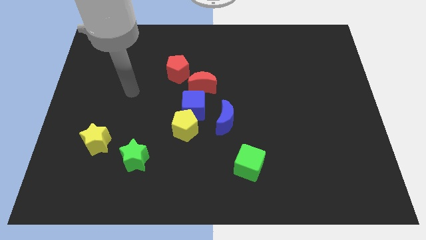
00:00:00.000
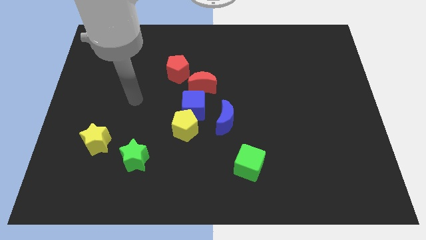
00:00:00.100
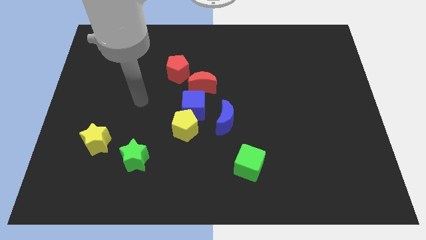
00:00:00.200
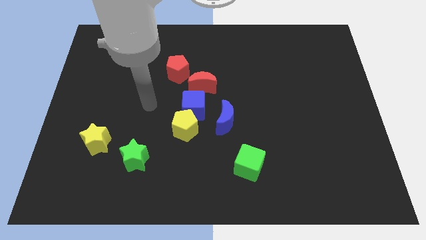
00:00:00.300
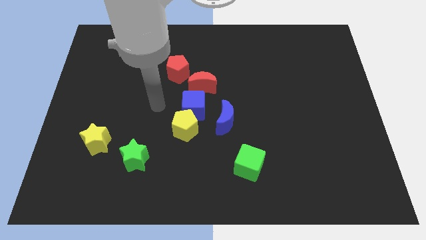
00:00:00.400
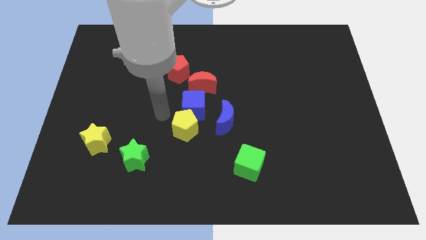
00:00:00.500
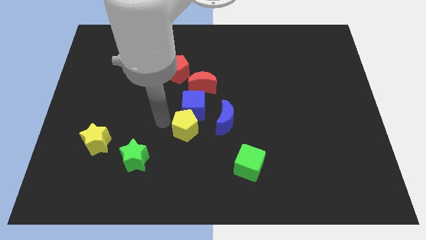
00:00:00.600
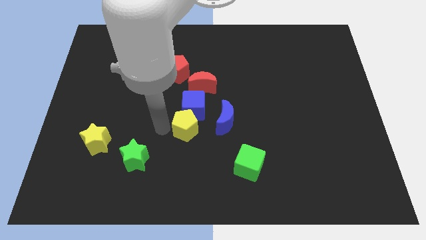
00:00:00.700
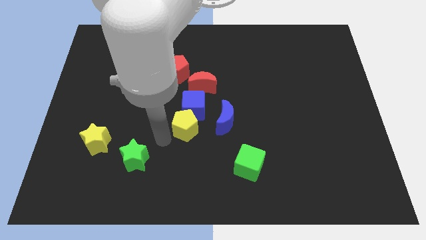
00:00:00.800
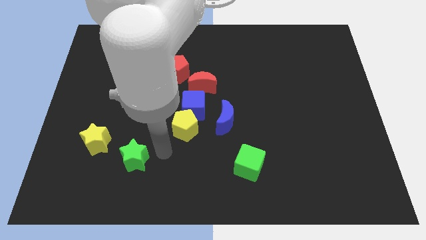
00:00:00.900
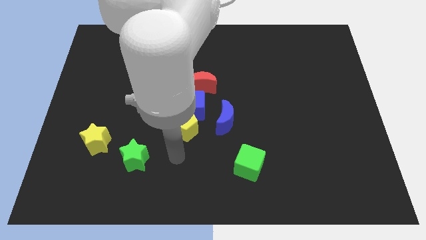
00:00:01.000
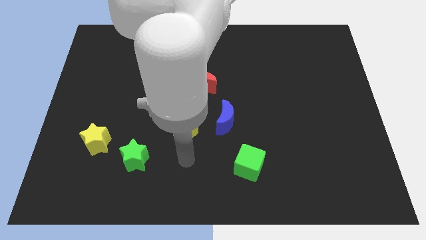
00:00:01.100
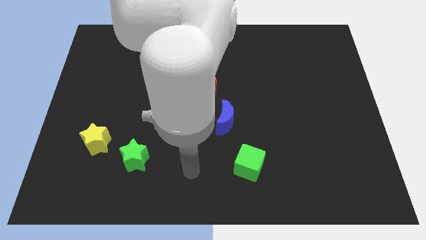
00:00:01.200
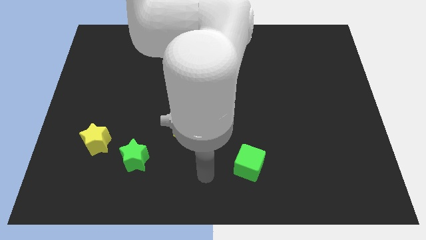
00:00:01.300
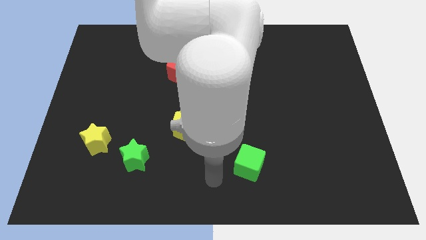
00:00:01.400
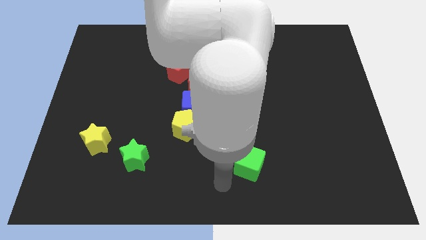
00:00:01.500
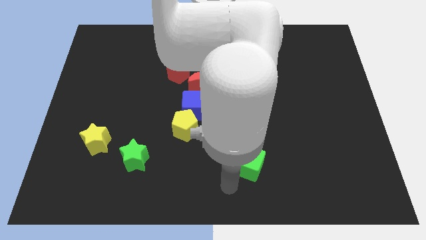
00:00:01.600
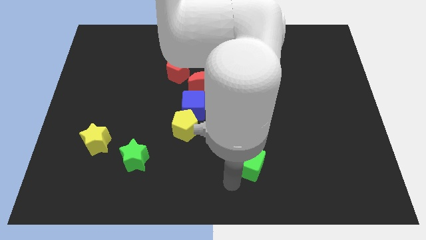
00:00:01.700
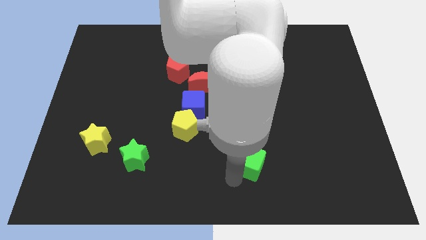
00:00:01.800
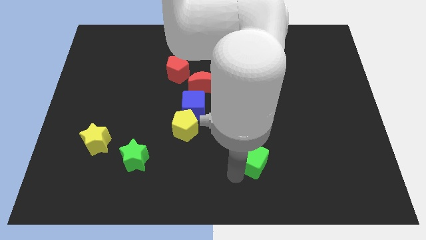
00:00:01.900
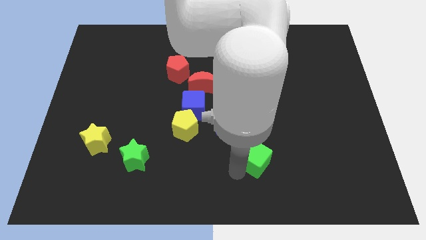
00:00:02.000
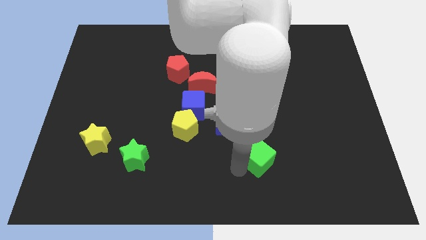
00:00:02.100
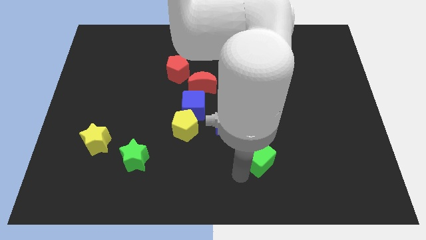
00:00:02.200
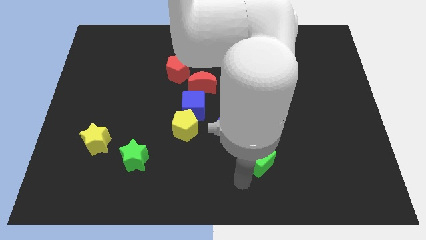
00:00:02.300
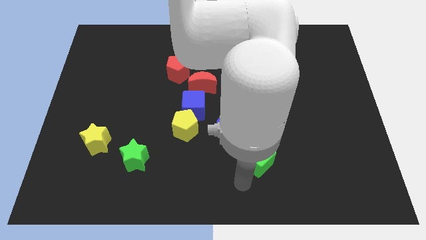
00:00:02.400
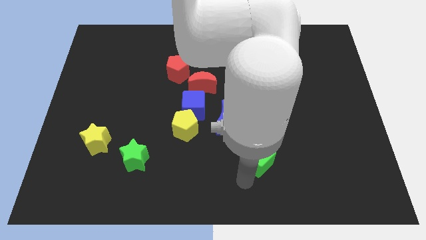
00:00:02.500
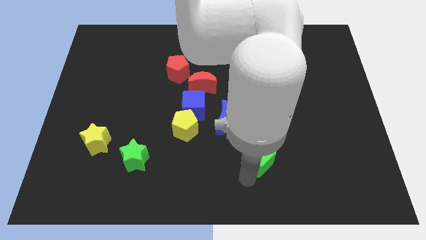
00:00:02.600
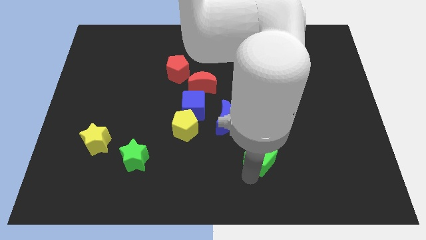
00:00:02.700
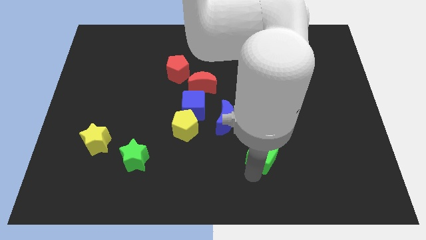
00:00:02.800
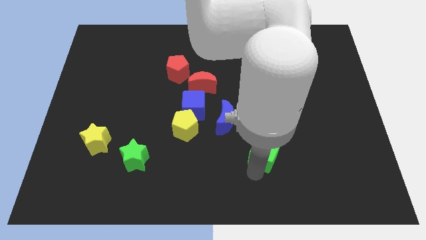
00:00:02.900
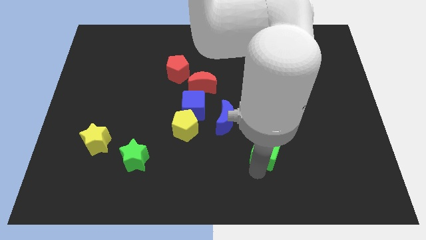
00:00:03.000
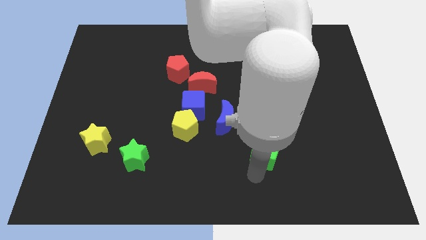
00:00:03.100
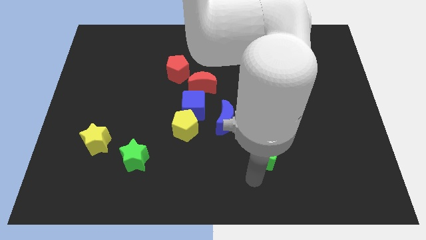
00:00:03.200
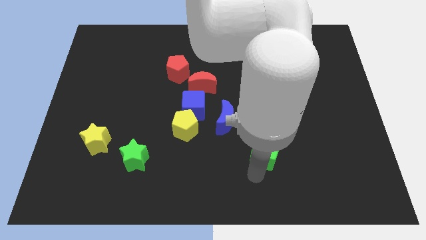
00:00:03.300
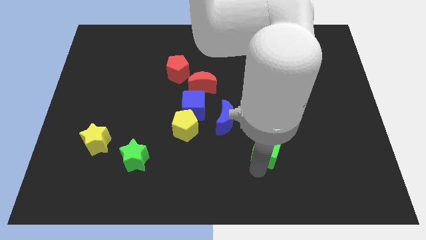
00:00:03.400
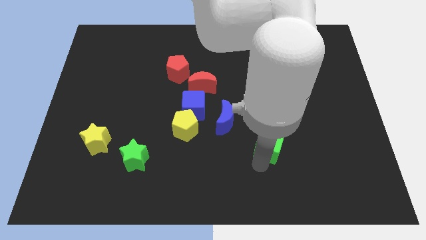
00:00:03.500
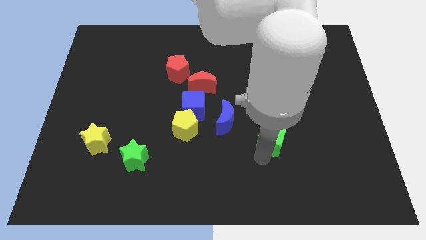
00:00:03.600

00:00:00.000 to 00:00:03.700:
slightly slide the green cube up and to the right diagonally

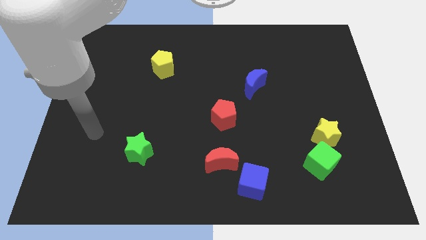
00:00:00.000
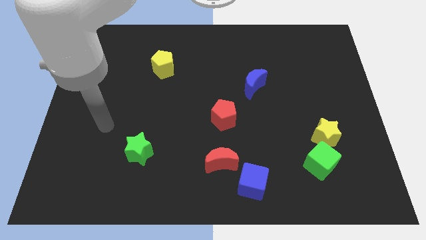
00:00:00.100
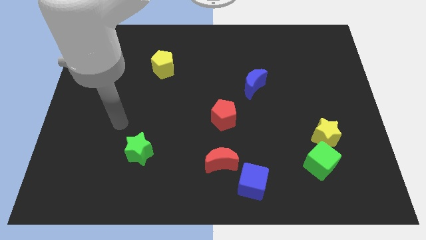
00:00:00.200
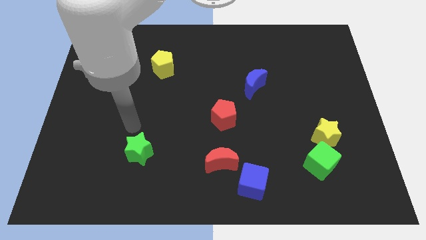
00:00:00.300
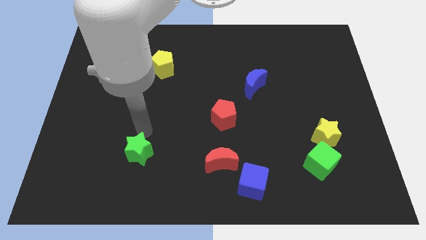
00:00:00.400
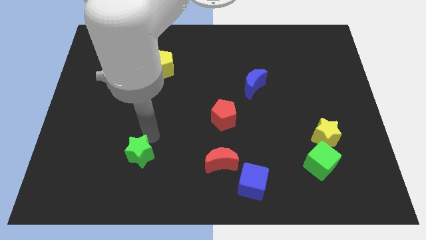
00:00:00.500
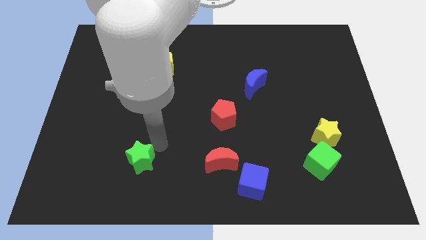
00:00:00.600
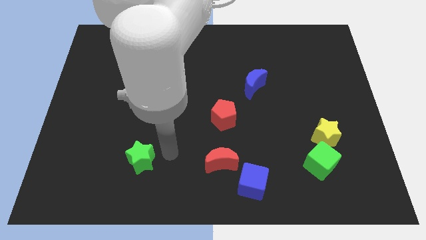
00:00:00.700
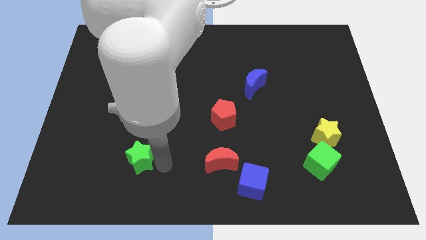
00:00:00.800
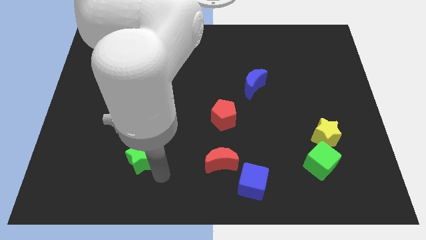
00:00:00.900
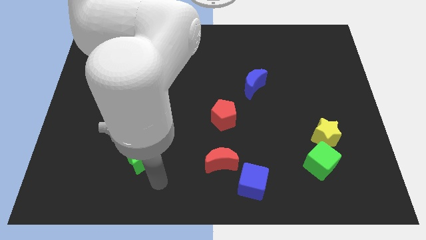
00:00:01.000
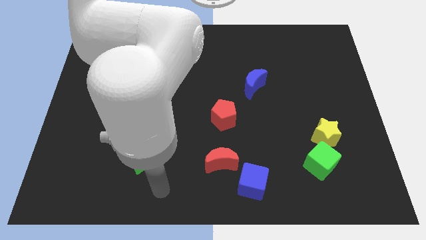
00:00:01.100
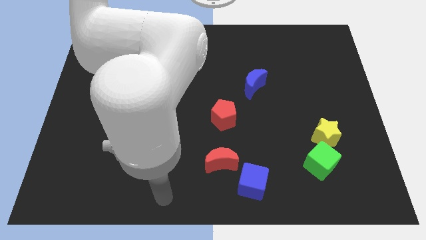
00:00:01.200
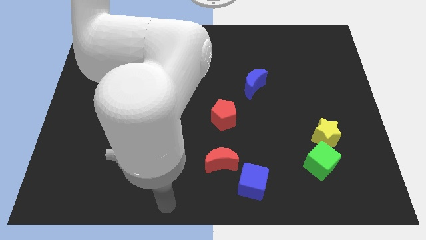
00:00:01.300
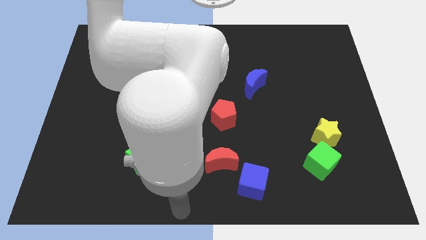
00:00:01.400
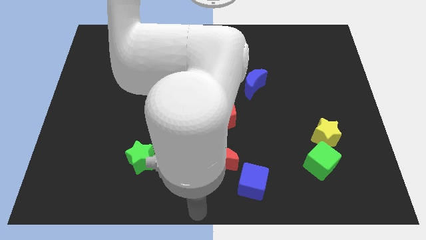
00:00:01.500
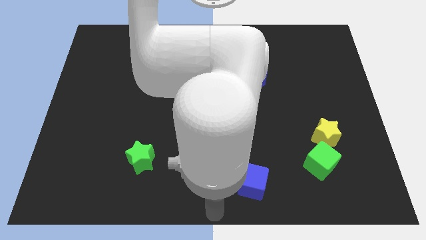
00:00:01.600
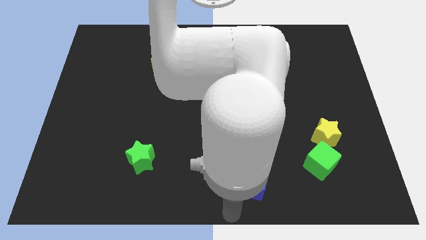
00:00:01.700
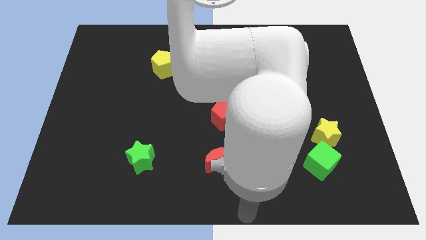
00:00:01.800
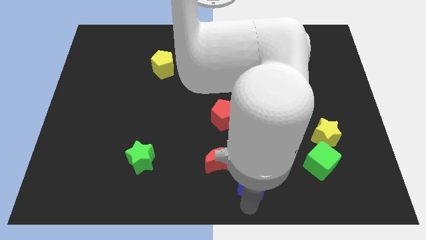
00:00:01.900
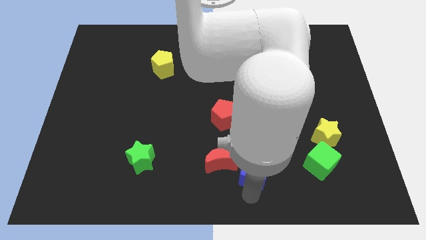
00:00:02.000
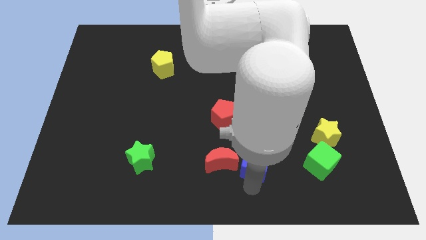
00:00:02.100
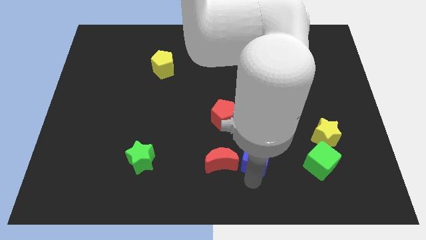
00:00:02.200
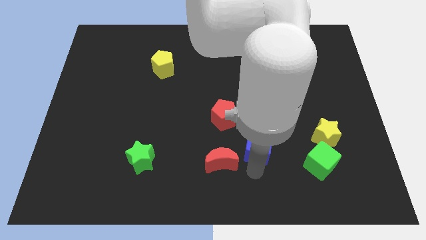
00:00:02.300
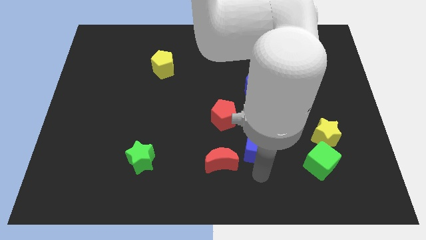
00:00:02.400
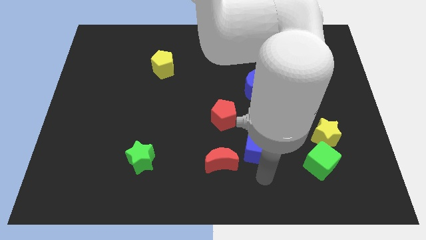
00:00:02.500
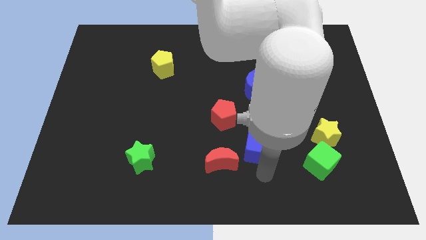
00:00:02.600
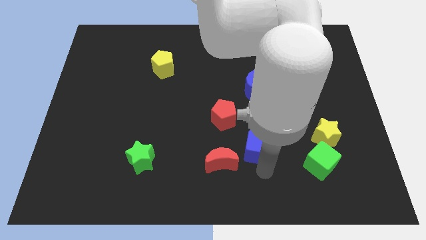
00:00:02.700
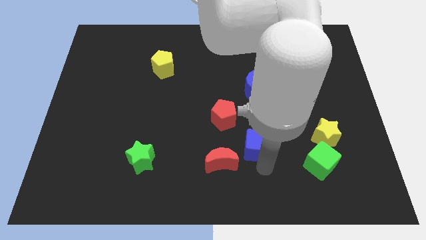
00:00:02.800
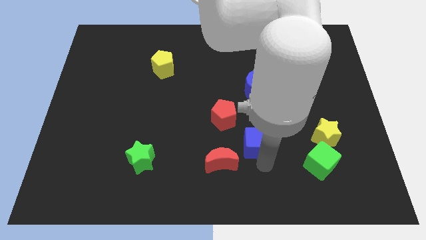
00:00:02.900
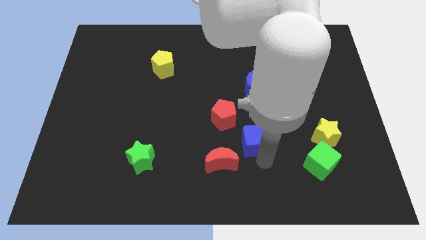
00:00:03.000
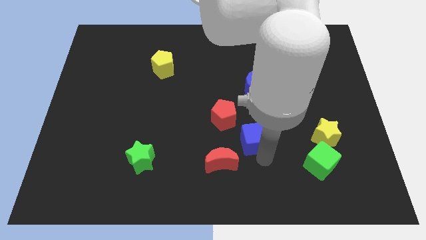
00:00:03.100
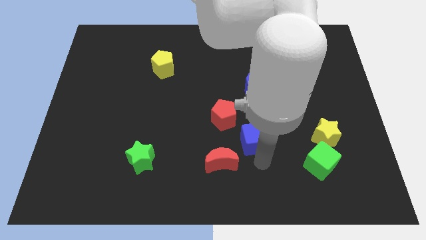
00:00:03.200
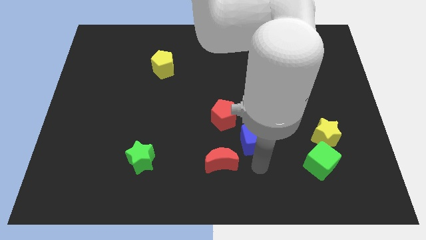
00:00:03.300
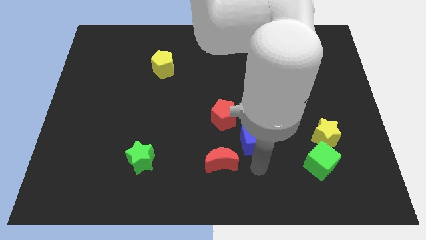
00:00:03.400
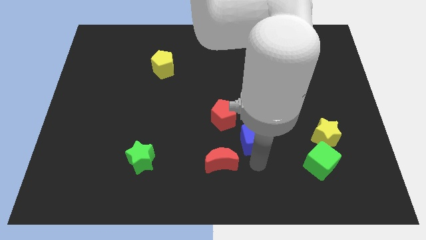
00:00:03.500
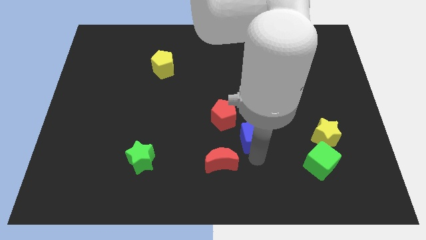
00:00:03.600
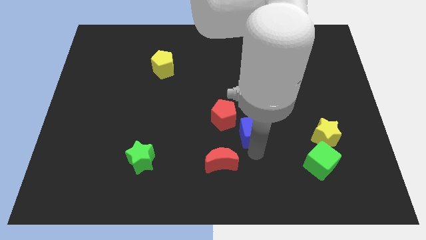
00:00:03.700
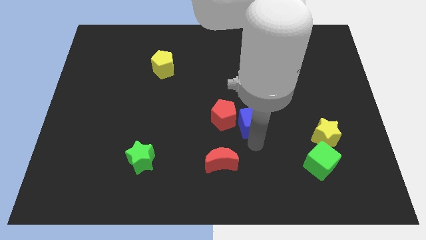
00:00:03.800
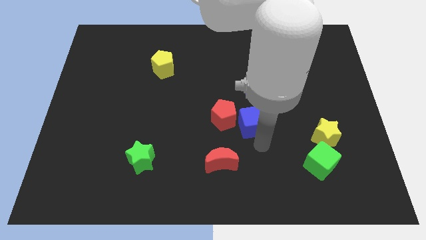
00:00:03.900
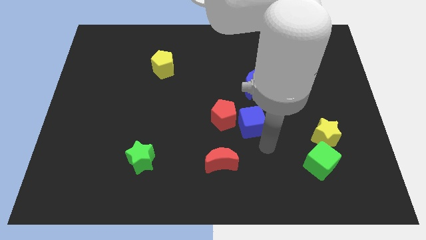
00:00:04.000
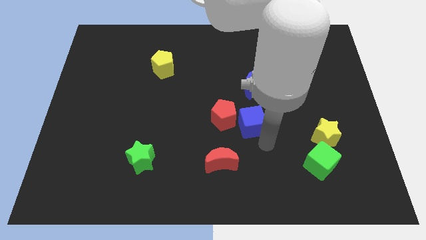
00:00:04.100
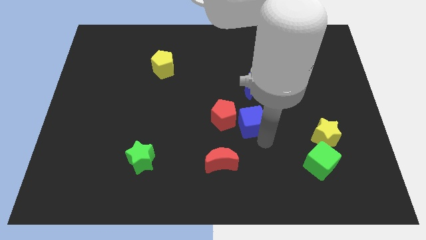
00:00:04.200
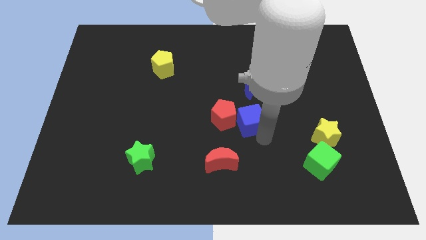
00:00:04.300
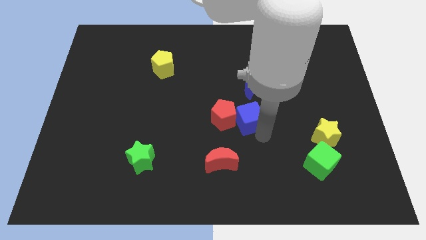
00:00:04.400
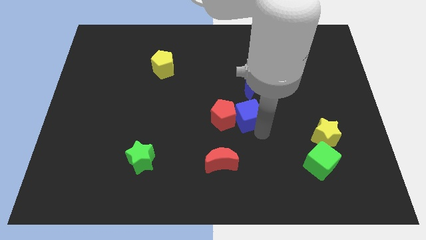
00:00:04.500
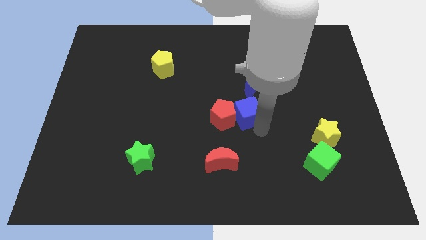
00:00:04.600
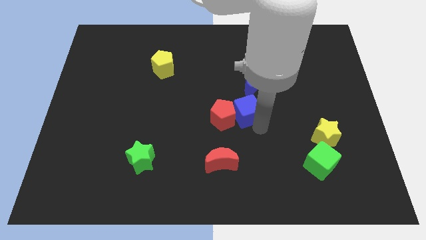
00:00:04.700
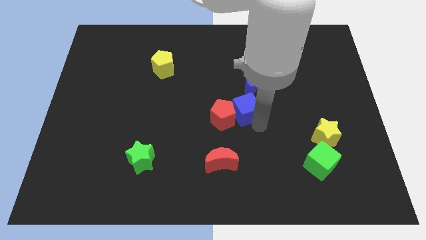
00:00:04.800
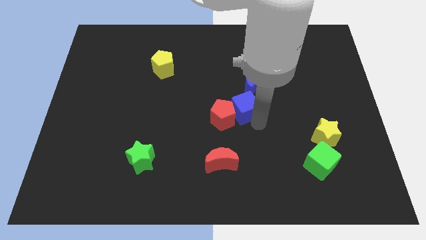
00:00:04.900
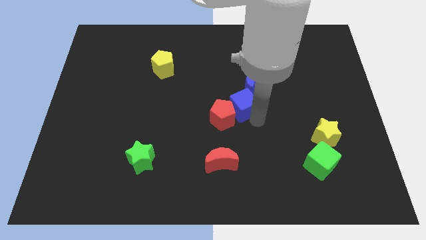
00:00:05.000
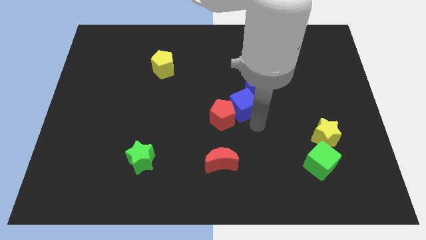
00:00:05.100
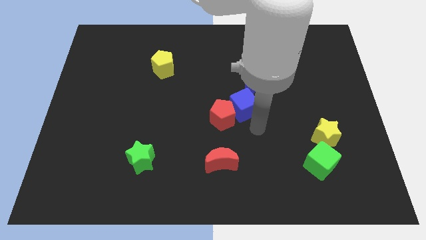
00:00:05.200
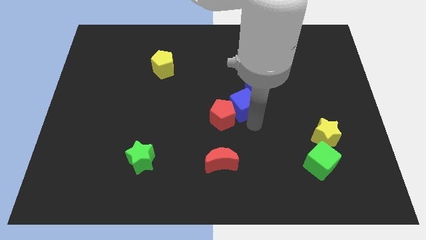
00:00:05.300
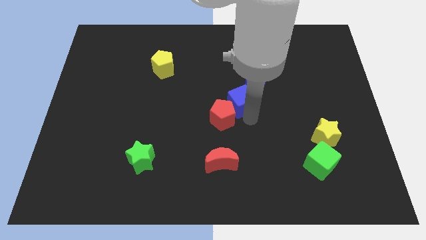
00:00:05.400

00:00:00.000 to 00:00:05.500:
slide the blue cube up
